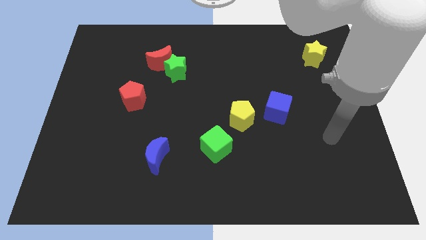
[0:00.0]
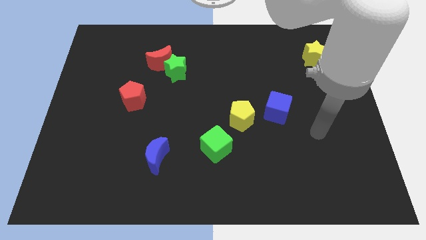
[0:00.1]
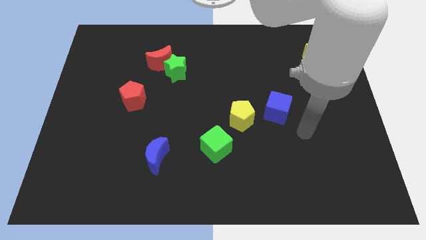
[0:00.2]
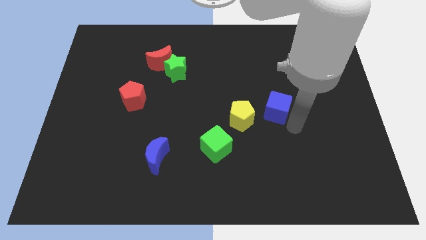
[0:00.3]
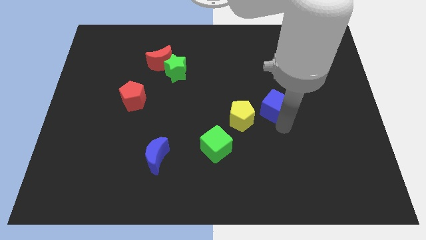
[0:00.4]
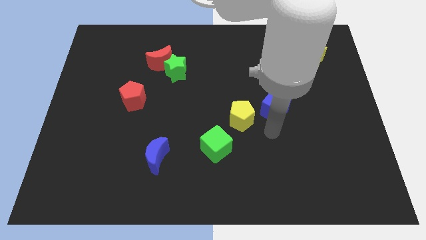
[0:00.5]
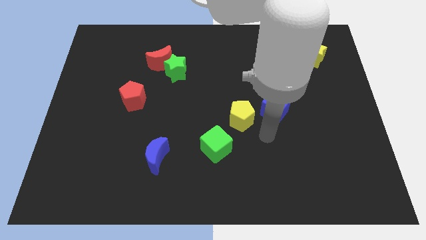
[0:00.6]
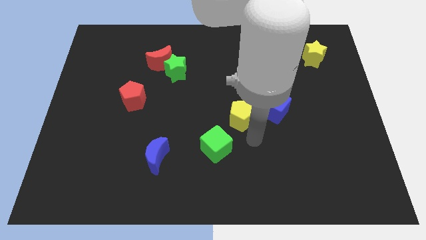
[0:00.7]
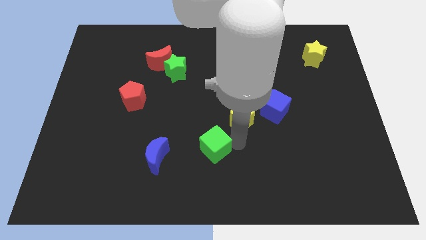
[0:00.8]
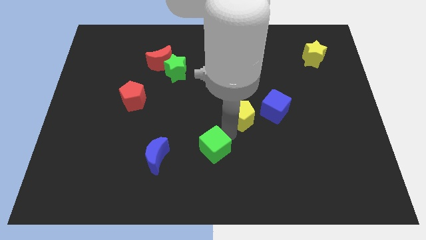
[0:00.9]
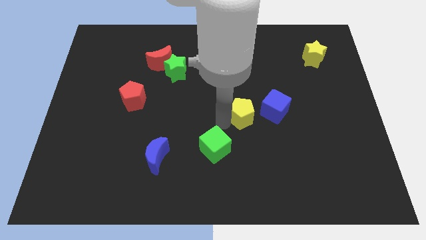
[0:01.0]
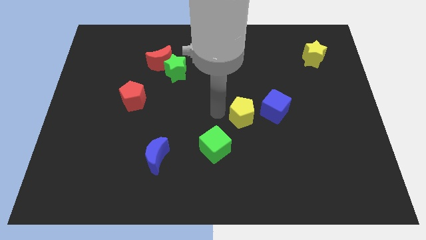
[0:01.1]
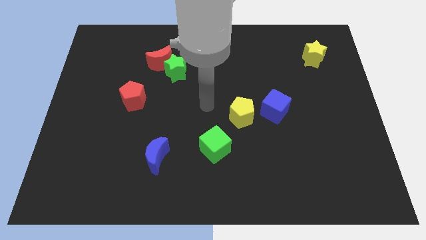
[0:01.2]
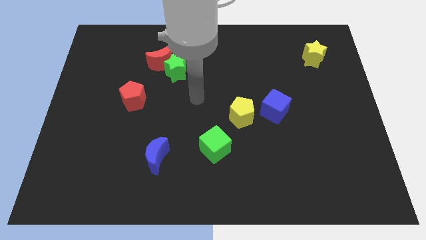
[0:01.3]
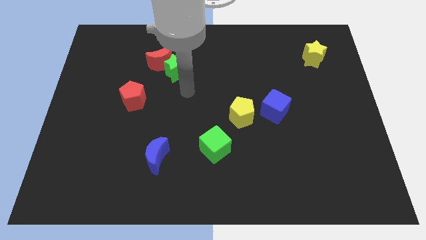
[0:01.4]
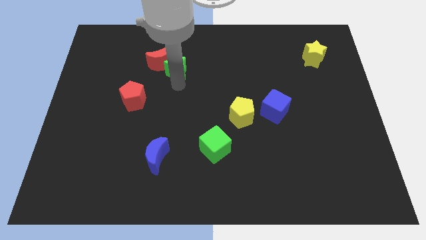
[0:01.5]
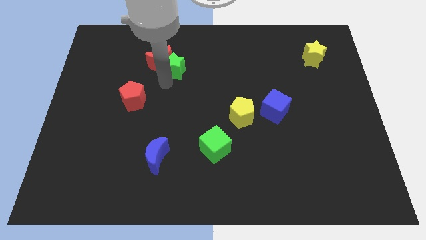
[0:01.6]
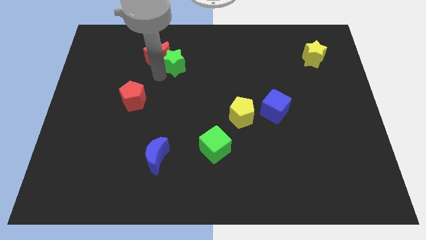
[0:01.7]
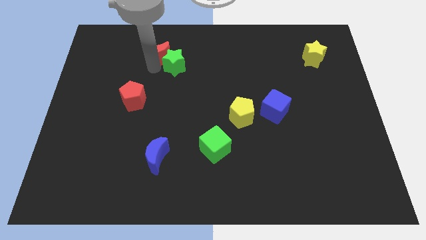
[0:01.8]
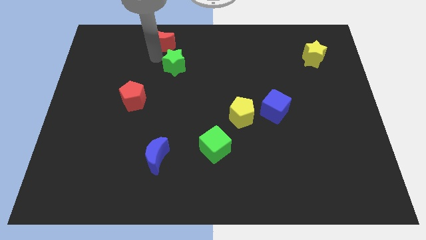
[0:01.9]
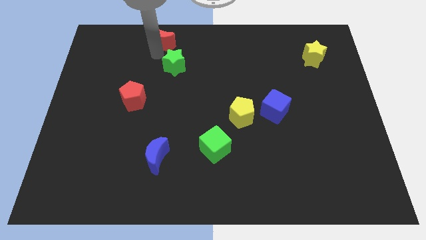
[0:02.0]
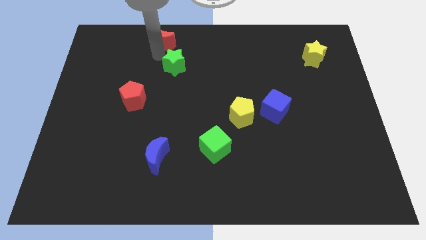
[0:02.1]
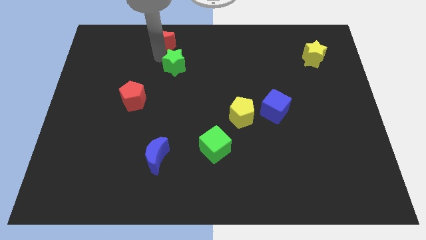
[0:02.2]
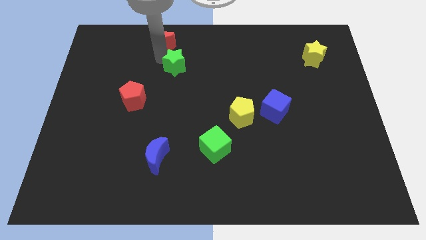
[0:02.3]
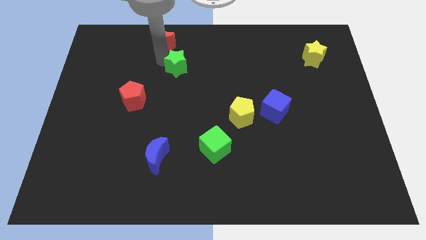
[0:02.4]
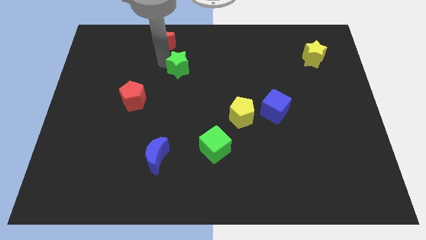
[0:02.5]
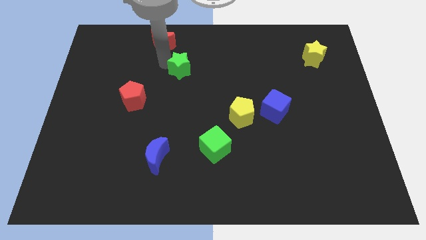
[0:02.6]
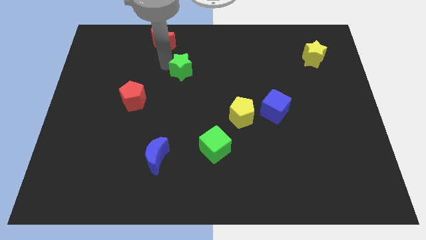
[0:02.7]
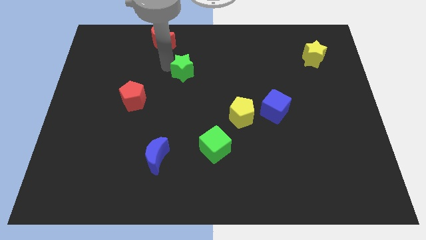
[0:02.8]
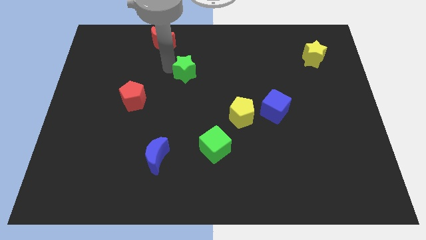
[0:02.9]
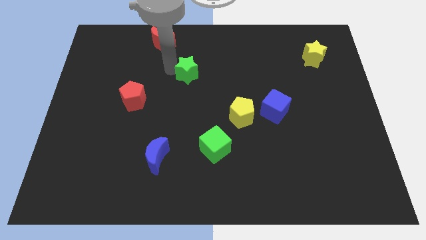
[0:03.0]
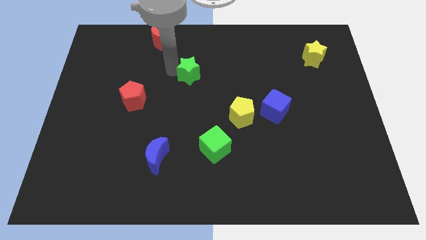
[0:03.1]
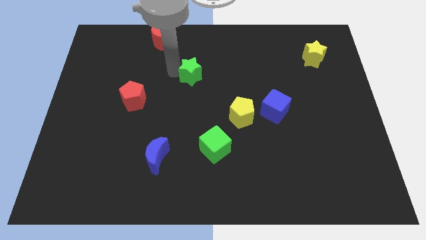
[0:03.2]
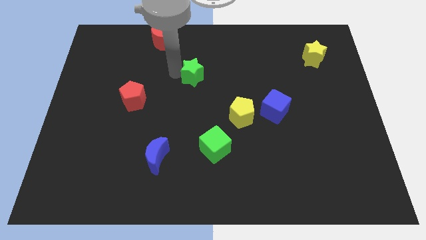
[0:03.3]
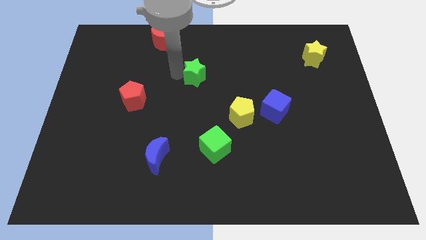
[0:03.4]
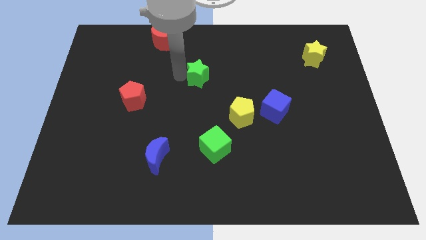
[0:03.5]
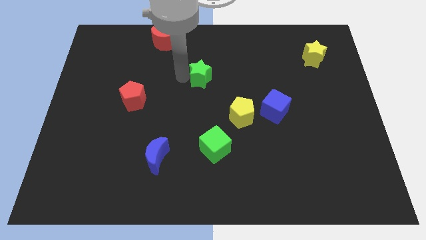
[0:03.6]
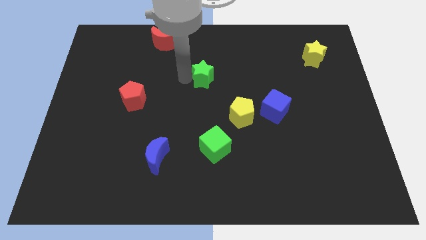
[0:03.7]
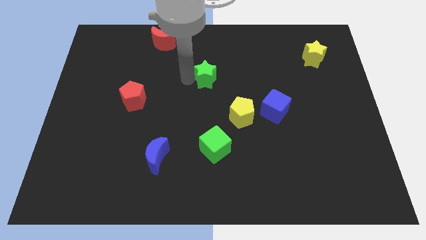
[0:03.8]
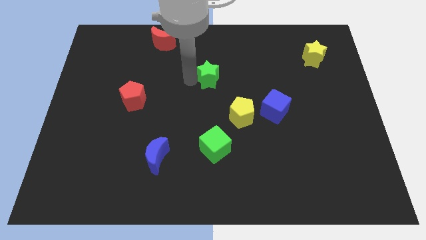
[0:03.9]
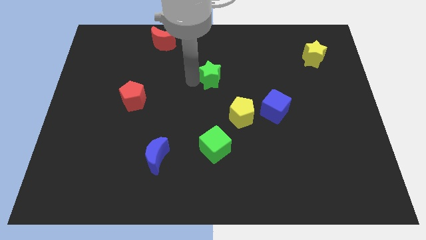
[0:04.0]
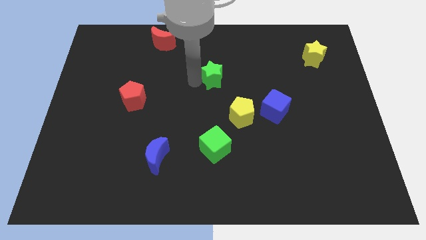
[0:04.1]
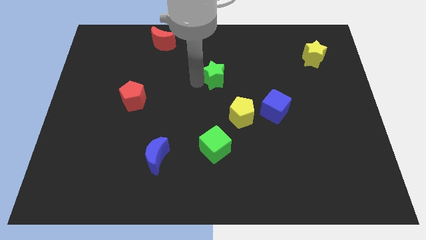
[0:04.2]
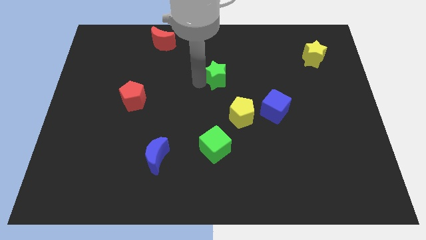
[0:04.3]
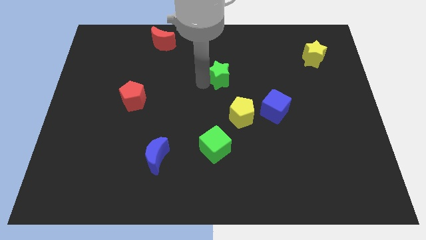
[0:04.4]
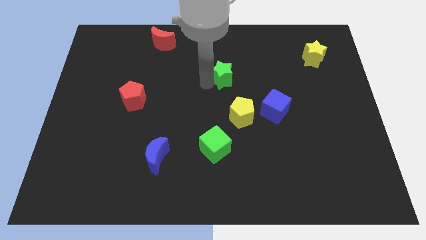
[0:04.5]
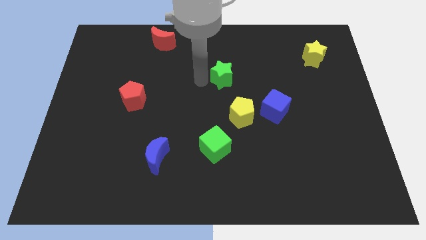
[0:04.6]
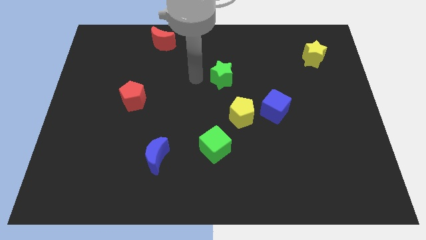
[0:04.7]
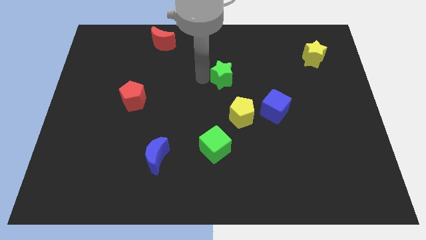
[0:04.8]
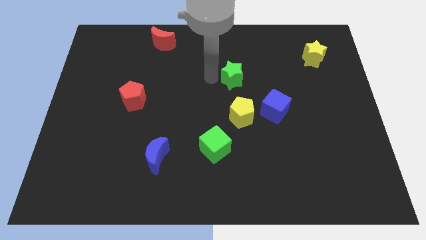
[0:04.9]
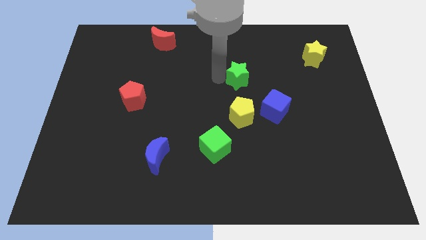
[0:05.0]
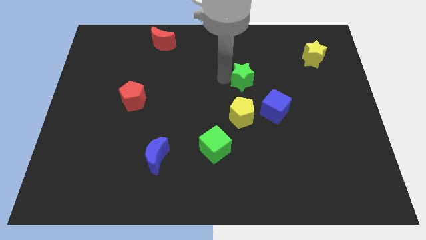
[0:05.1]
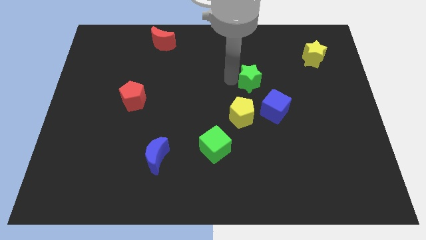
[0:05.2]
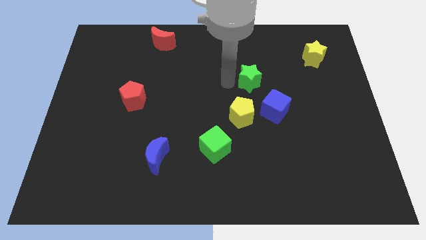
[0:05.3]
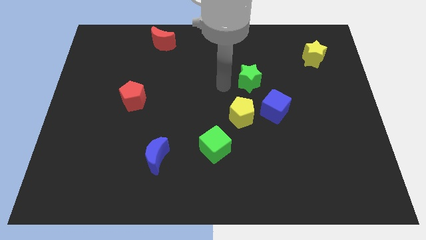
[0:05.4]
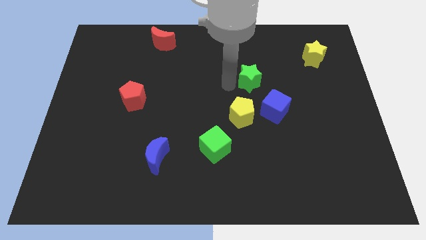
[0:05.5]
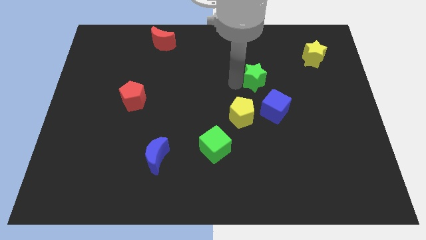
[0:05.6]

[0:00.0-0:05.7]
slide the green star to the top of the blue cube

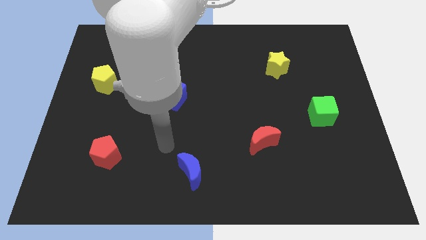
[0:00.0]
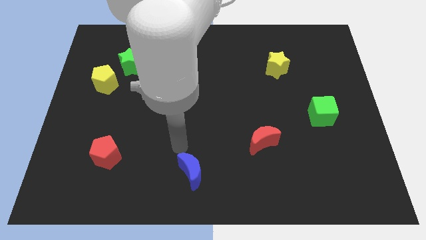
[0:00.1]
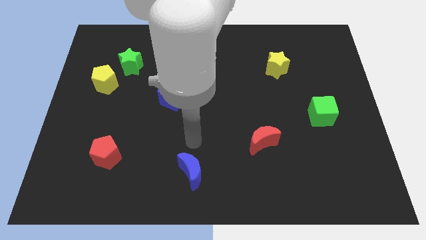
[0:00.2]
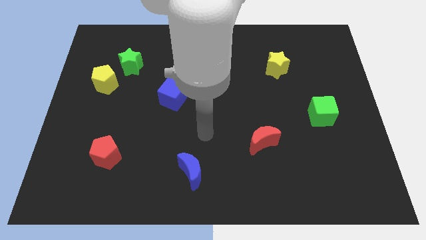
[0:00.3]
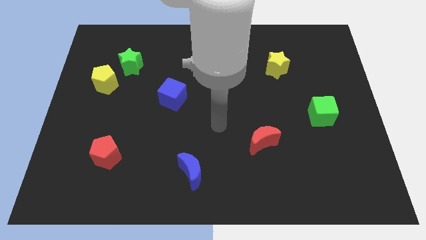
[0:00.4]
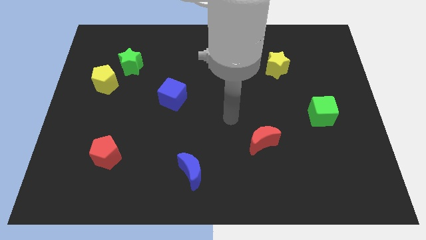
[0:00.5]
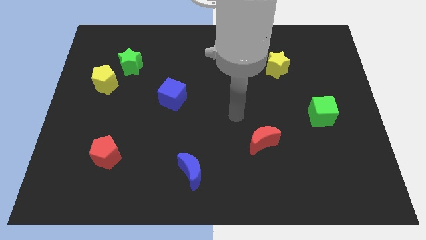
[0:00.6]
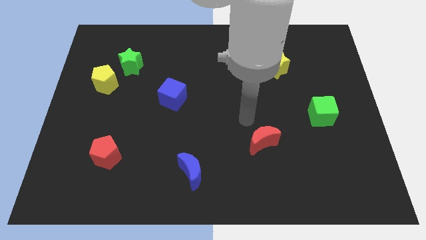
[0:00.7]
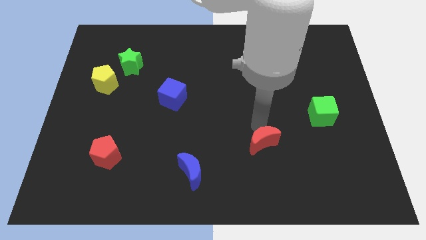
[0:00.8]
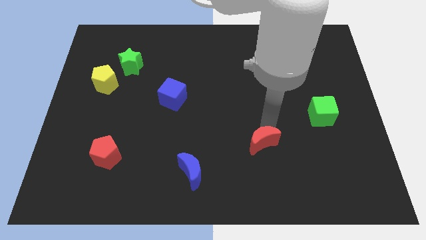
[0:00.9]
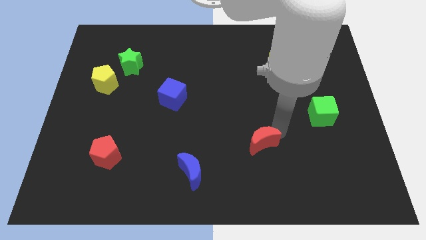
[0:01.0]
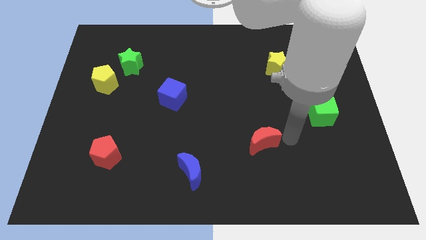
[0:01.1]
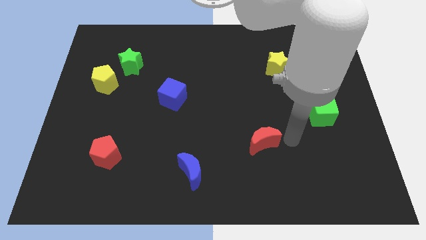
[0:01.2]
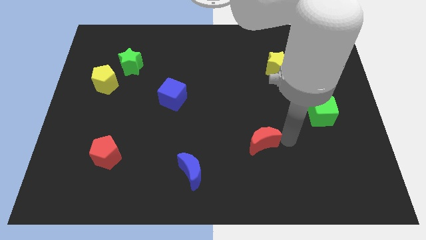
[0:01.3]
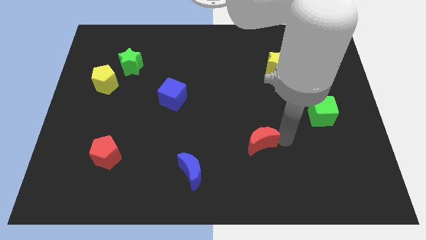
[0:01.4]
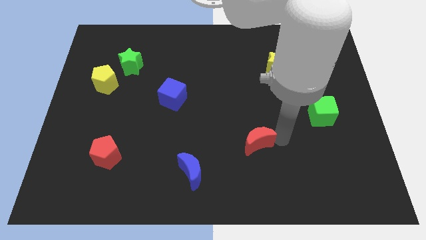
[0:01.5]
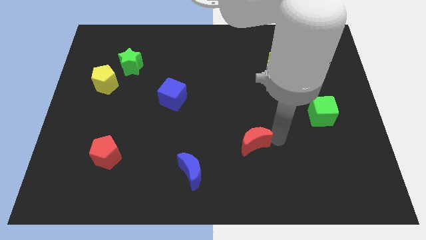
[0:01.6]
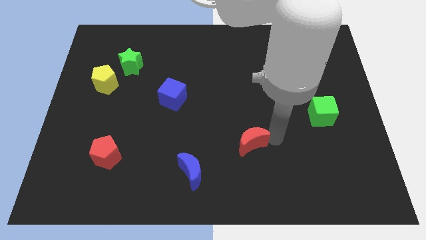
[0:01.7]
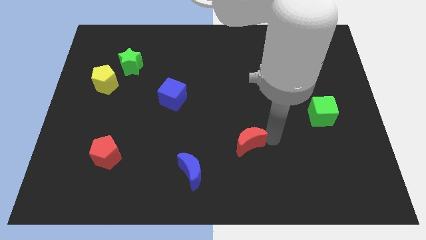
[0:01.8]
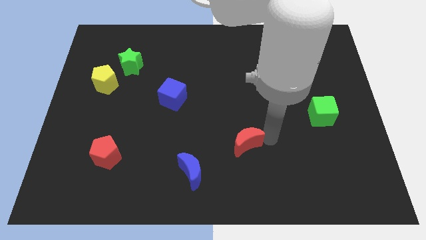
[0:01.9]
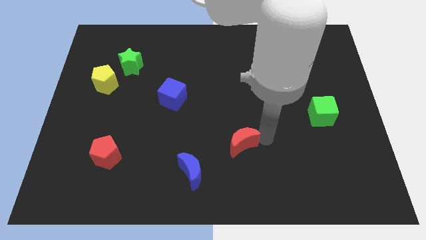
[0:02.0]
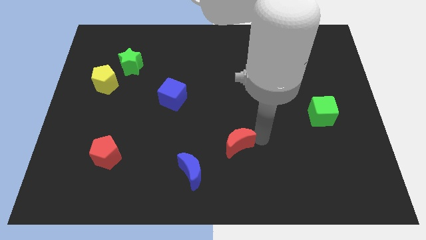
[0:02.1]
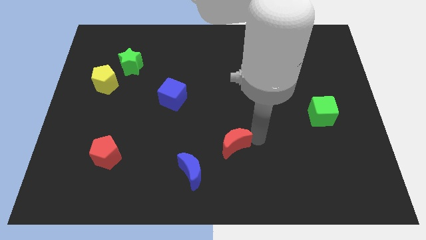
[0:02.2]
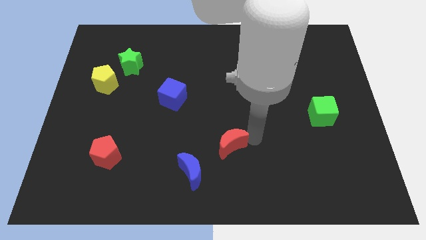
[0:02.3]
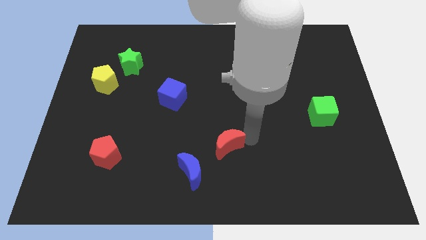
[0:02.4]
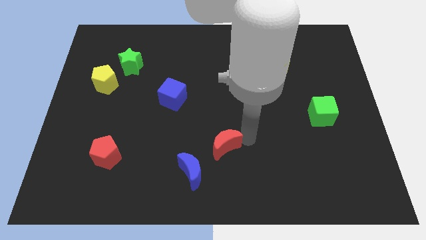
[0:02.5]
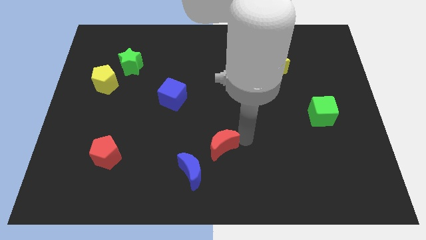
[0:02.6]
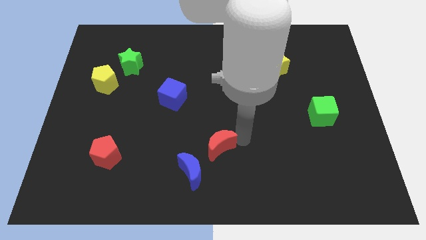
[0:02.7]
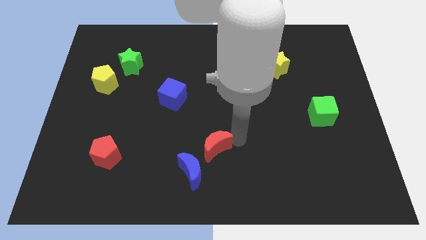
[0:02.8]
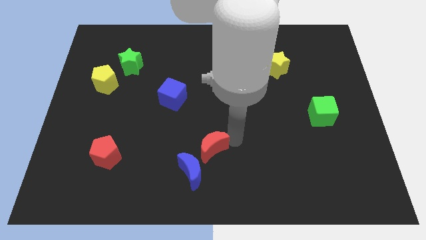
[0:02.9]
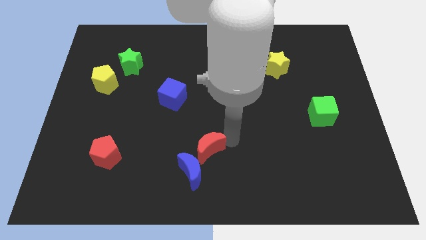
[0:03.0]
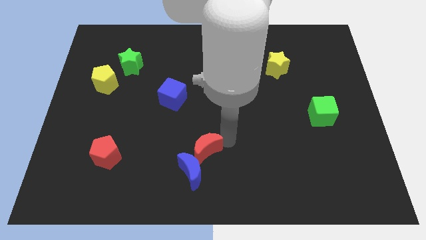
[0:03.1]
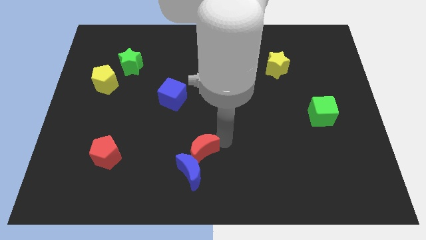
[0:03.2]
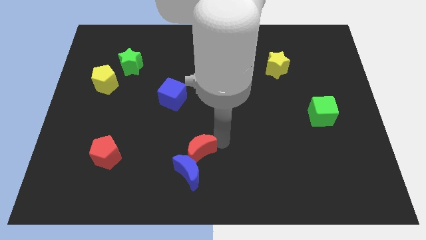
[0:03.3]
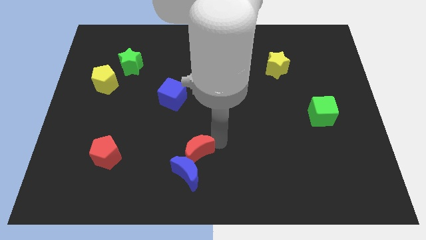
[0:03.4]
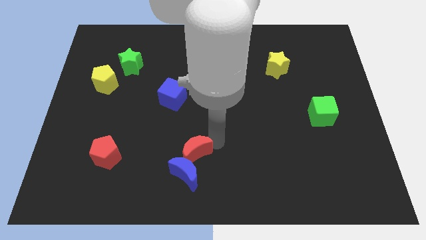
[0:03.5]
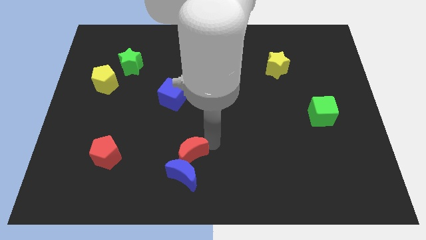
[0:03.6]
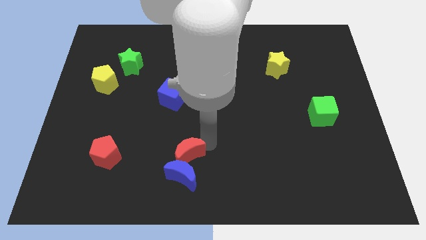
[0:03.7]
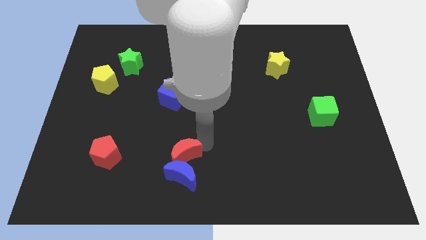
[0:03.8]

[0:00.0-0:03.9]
slide the red moon to the right side of the red pentagon
